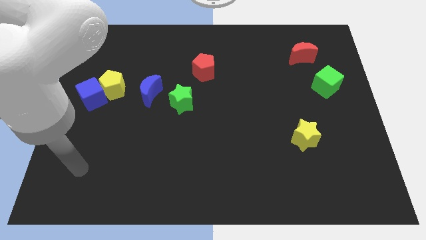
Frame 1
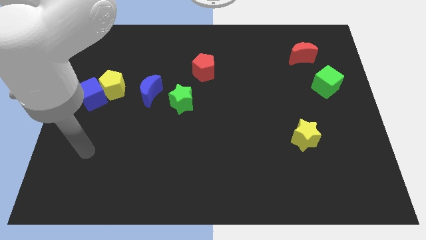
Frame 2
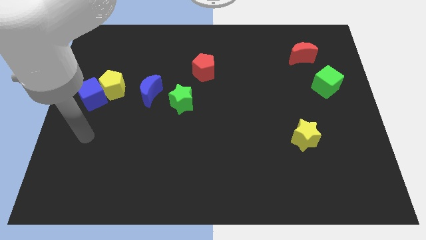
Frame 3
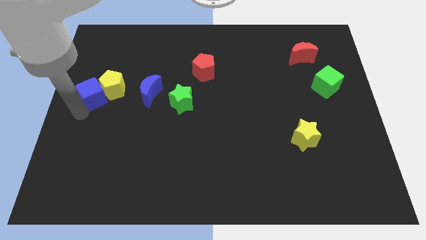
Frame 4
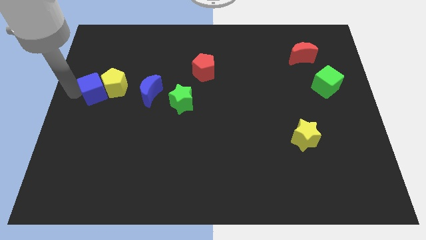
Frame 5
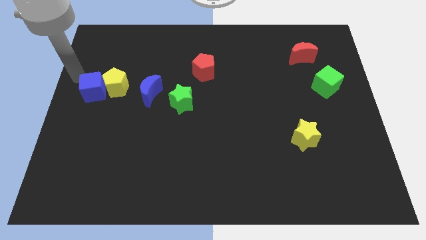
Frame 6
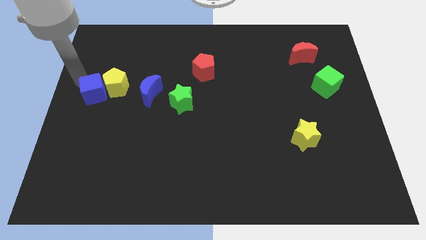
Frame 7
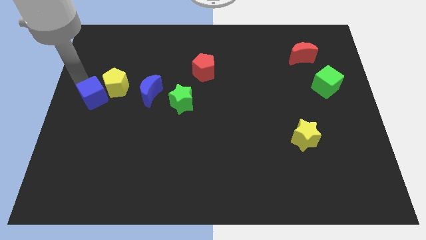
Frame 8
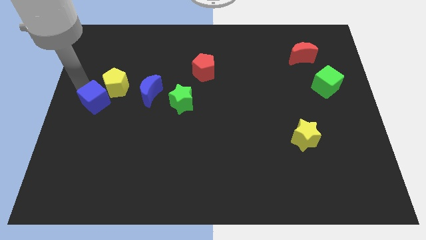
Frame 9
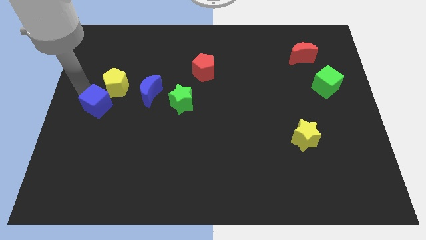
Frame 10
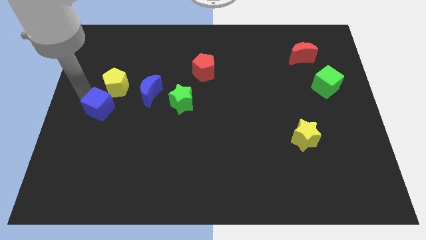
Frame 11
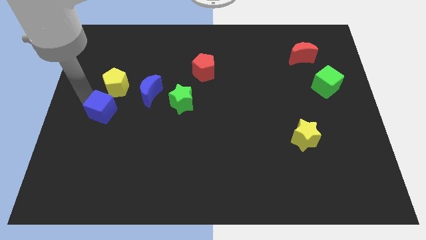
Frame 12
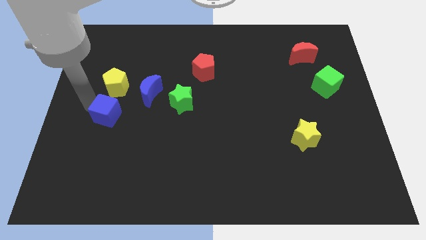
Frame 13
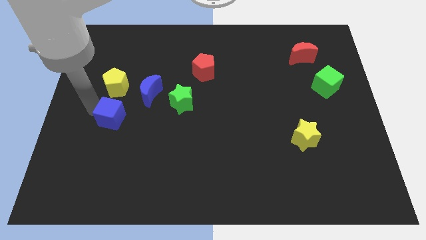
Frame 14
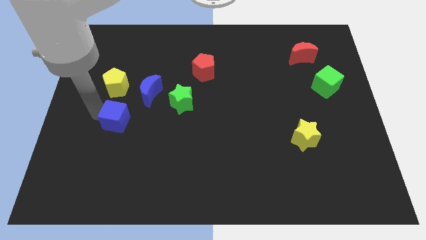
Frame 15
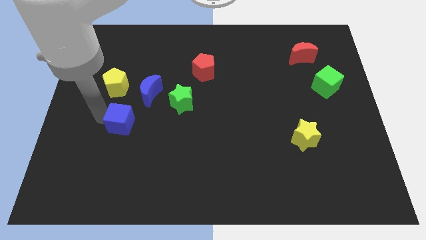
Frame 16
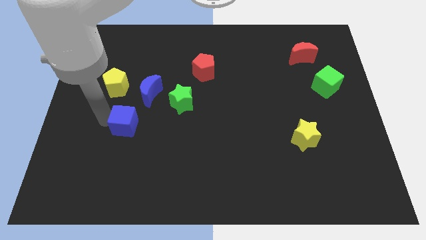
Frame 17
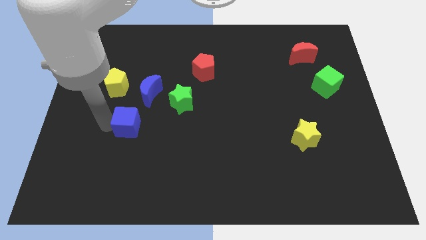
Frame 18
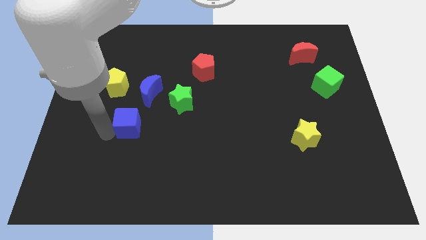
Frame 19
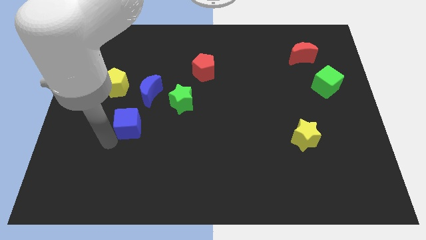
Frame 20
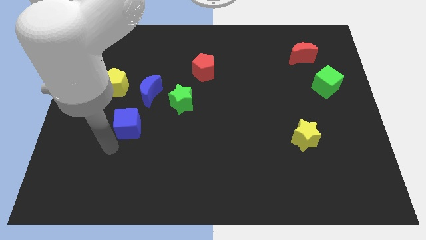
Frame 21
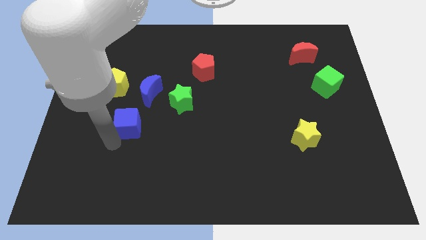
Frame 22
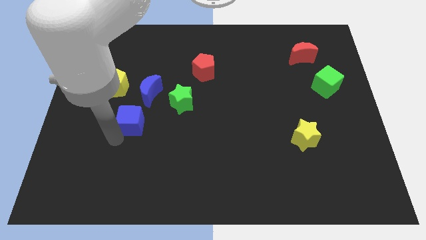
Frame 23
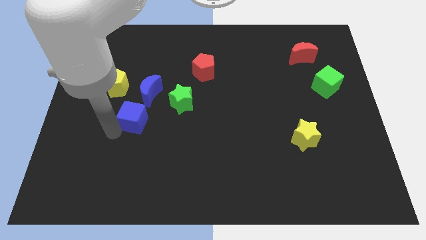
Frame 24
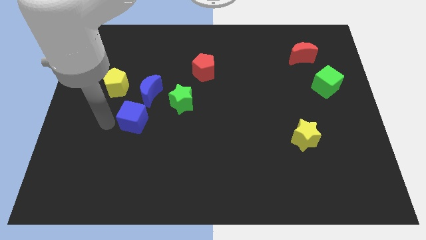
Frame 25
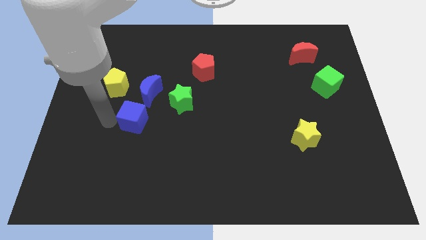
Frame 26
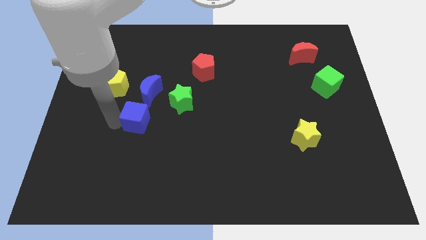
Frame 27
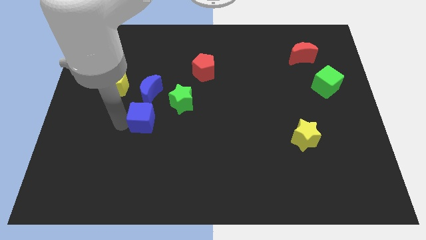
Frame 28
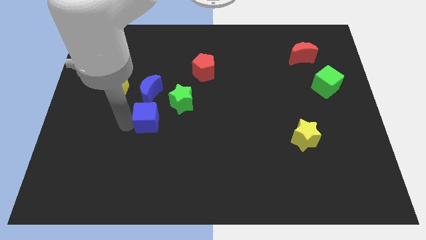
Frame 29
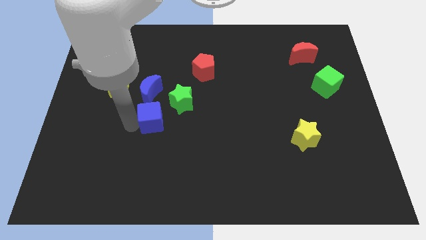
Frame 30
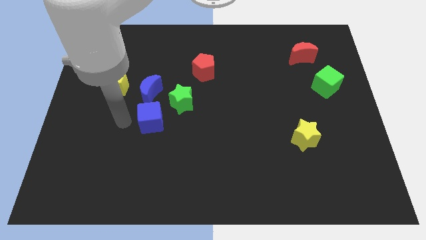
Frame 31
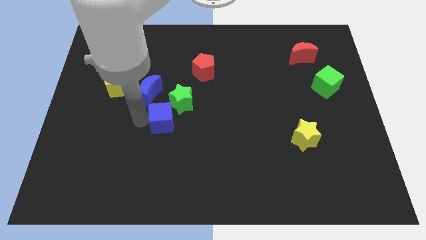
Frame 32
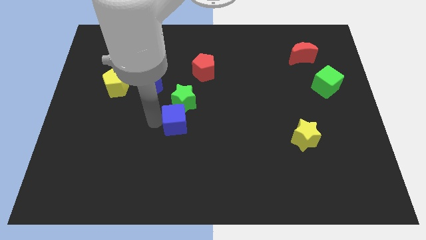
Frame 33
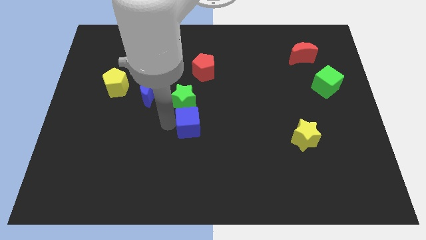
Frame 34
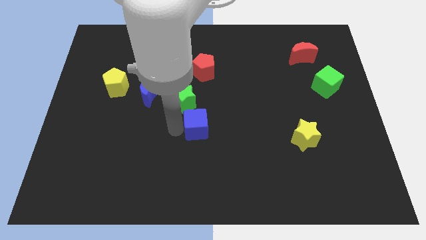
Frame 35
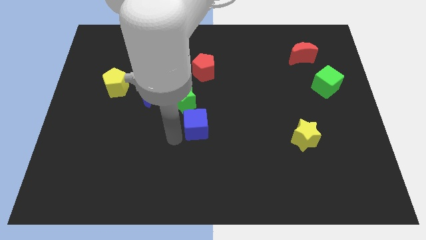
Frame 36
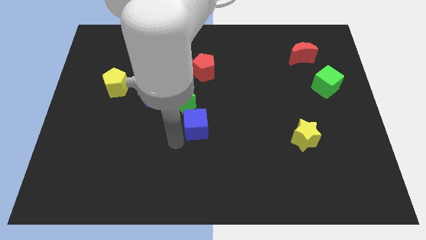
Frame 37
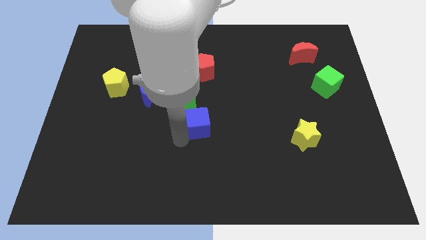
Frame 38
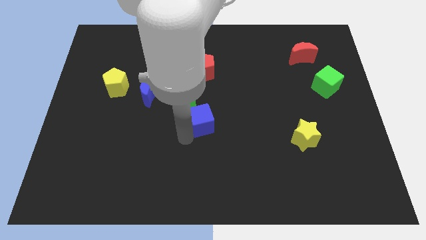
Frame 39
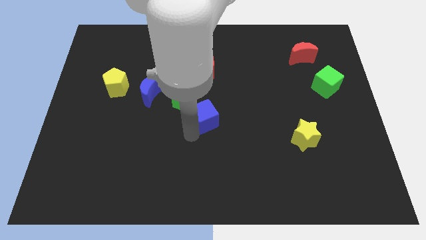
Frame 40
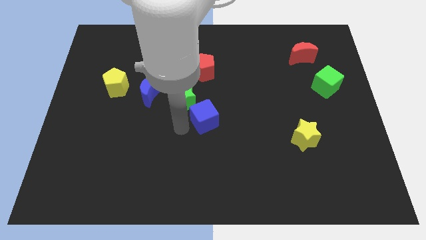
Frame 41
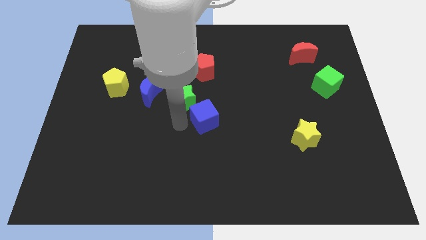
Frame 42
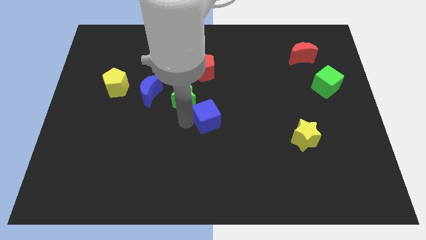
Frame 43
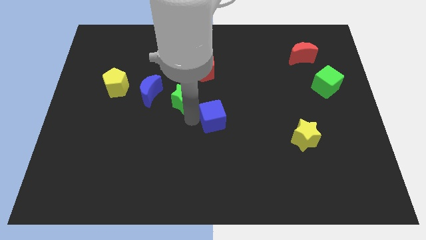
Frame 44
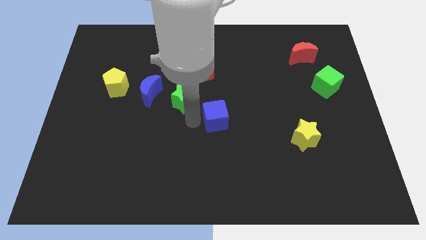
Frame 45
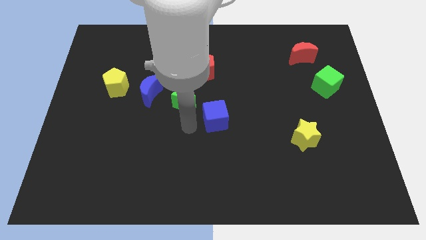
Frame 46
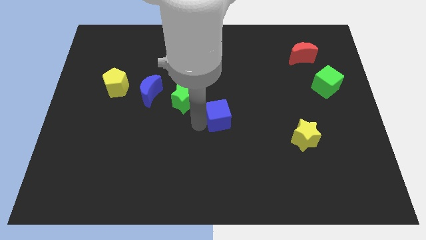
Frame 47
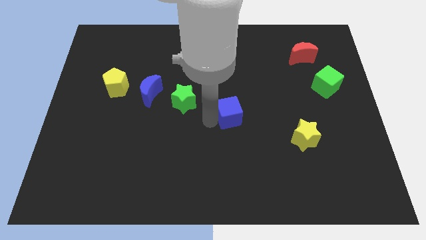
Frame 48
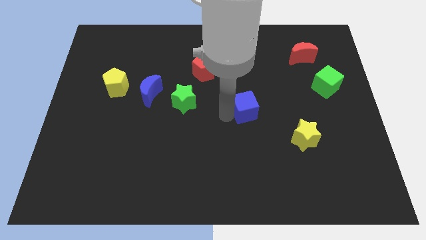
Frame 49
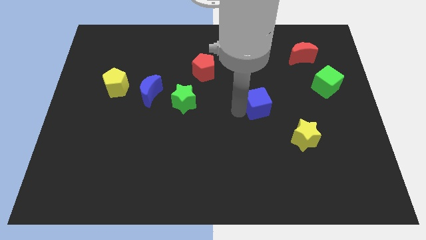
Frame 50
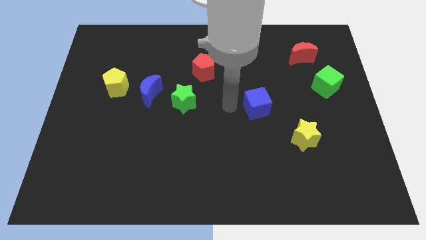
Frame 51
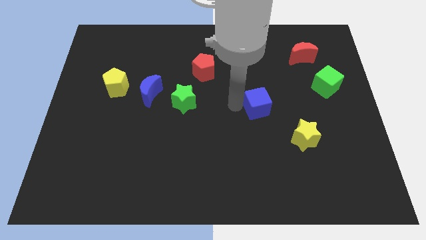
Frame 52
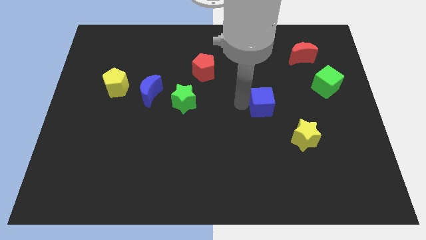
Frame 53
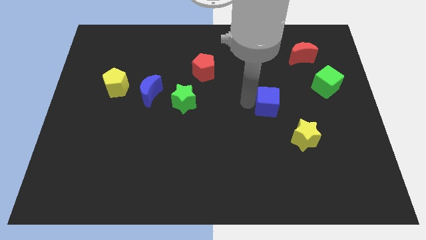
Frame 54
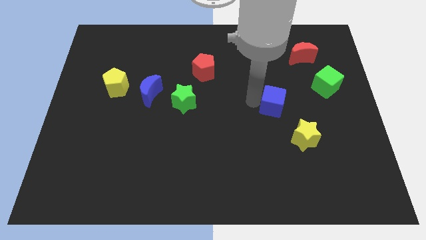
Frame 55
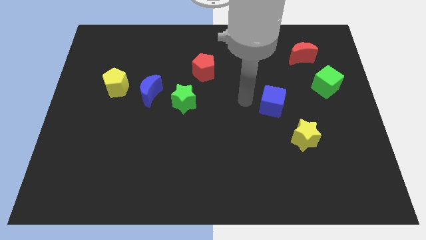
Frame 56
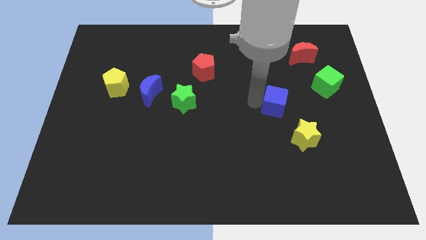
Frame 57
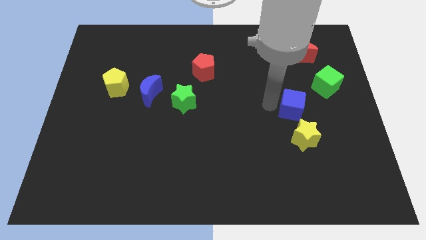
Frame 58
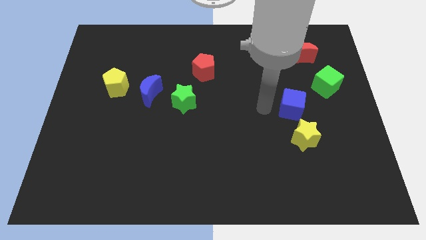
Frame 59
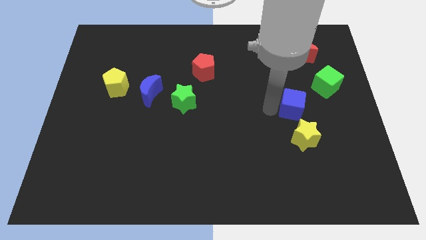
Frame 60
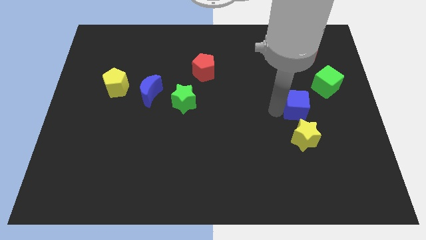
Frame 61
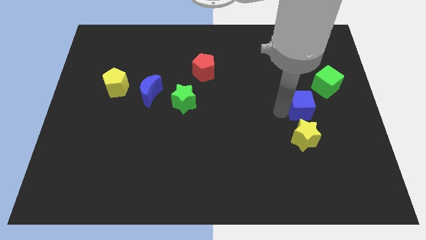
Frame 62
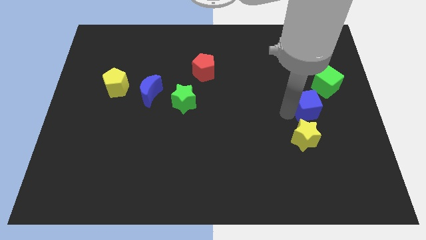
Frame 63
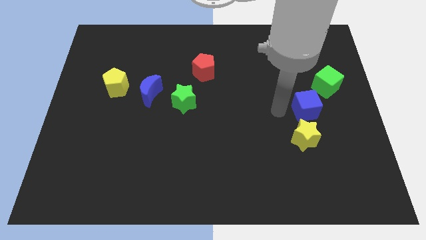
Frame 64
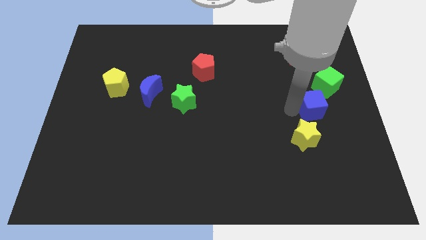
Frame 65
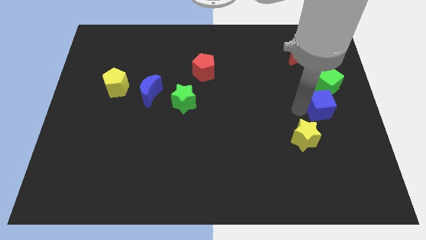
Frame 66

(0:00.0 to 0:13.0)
push the blue cube to the right side of the board
